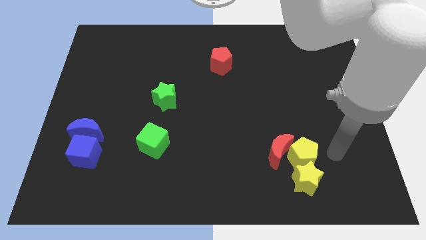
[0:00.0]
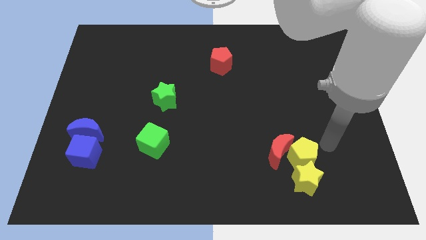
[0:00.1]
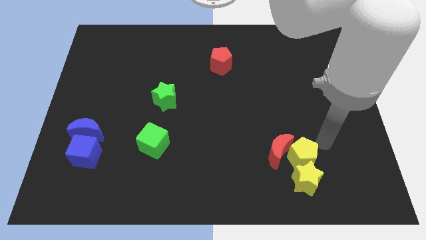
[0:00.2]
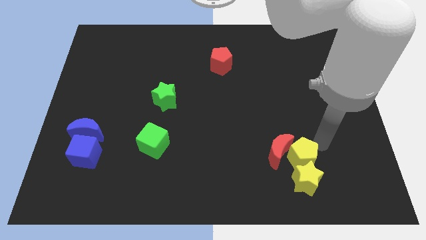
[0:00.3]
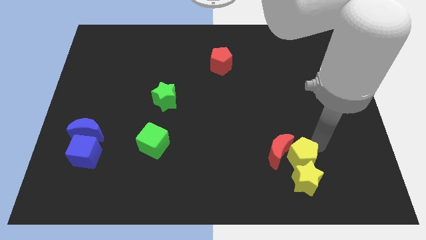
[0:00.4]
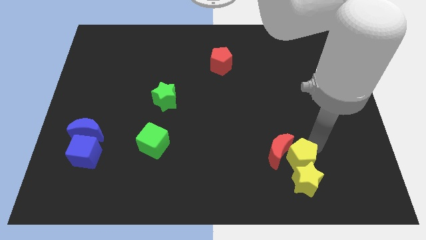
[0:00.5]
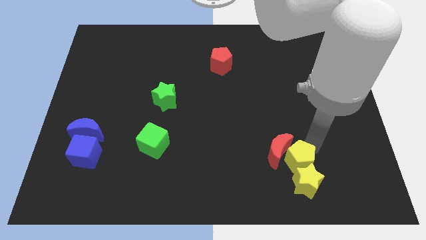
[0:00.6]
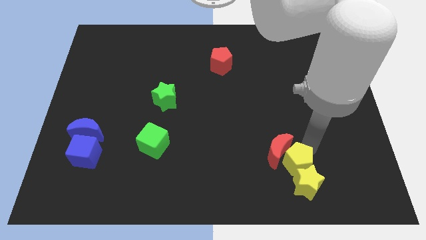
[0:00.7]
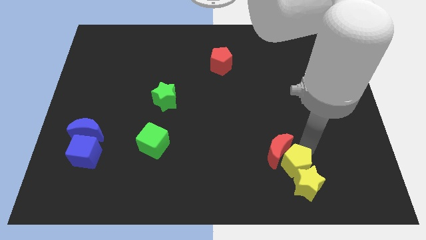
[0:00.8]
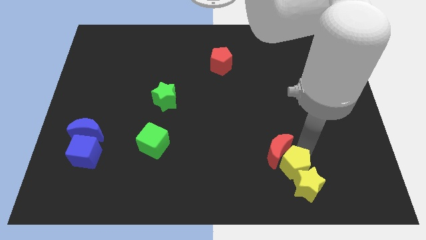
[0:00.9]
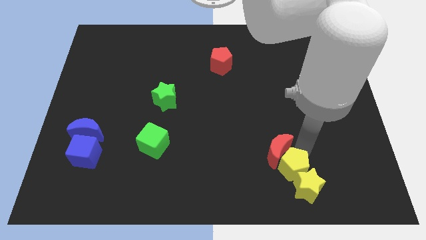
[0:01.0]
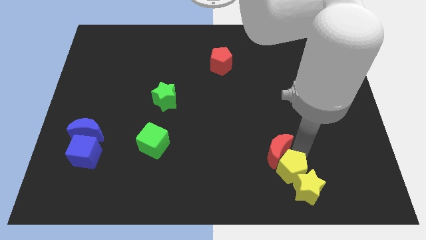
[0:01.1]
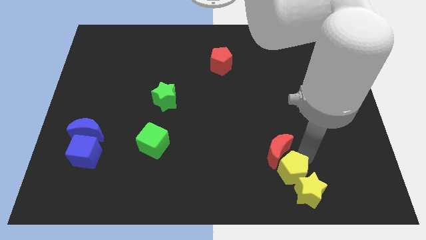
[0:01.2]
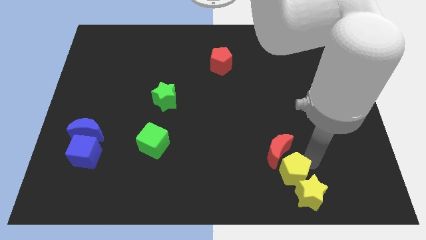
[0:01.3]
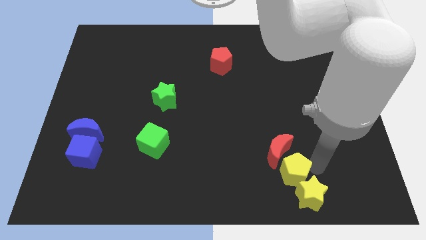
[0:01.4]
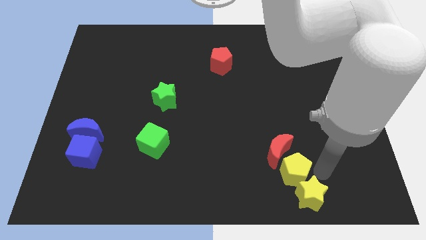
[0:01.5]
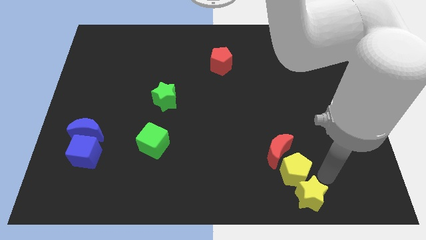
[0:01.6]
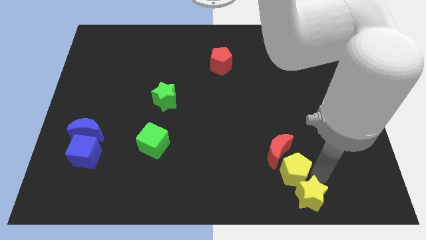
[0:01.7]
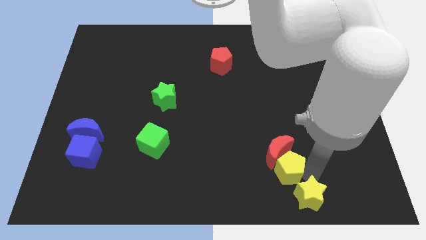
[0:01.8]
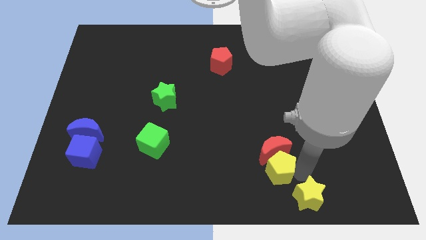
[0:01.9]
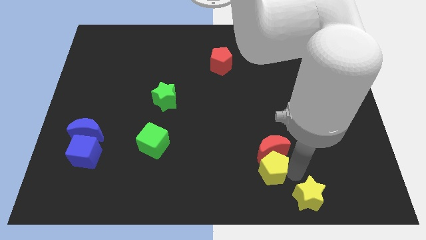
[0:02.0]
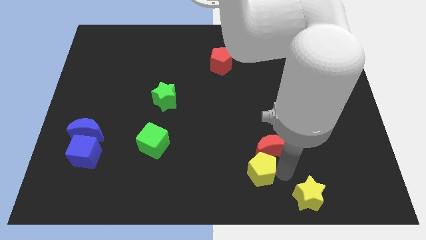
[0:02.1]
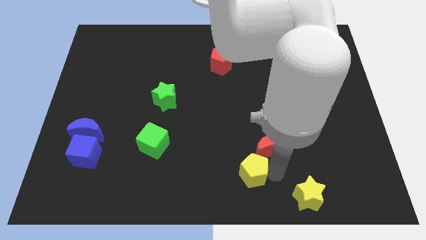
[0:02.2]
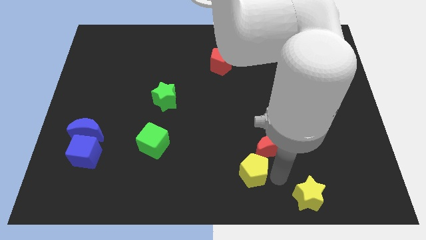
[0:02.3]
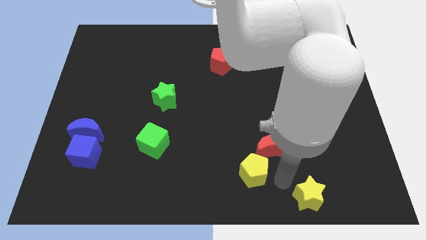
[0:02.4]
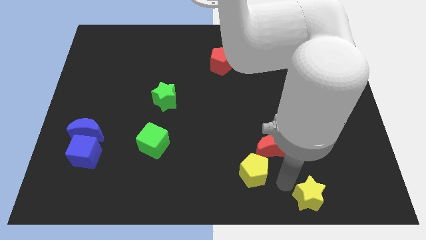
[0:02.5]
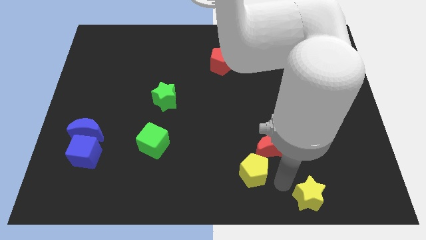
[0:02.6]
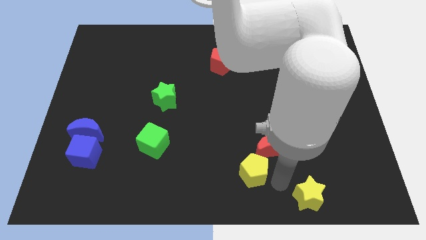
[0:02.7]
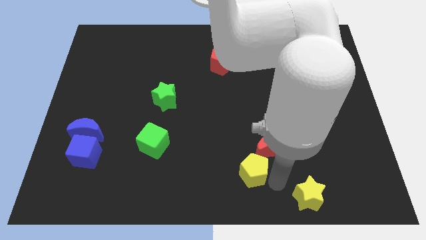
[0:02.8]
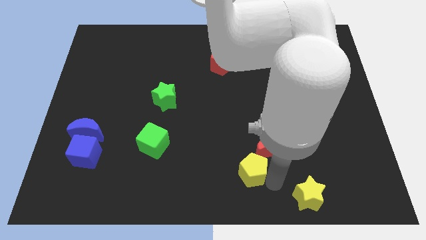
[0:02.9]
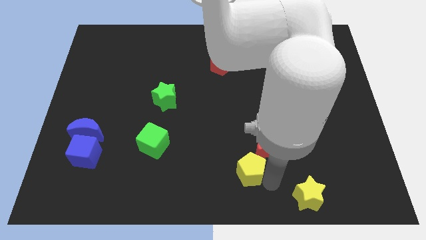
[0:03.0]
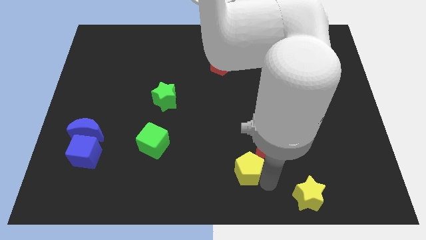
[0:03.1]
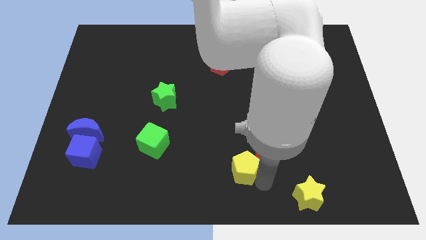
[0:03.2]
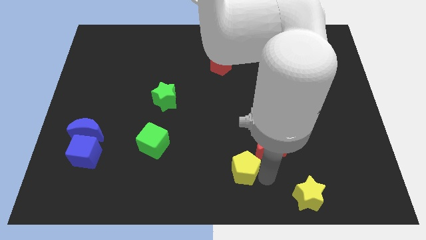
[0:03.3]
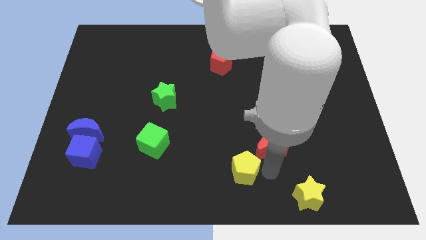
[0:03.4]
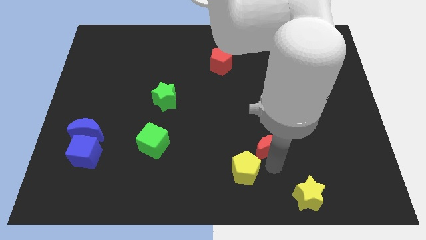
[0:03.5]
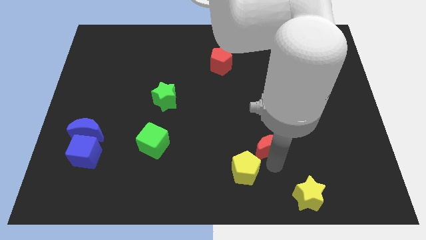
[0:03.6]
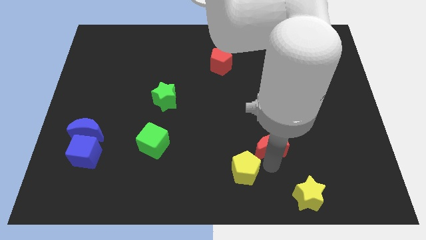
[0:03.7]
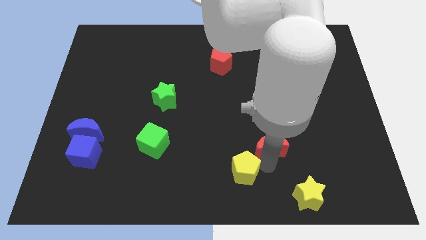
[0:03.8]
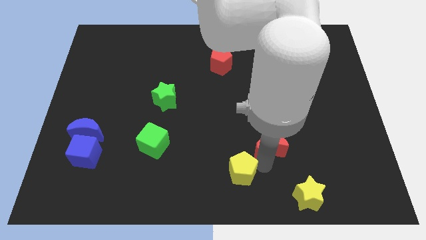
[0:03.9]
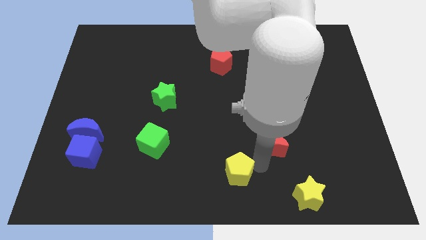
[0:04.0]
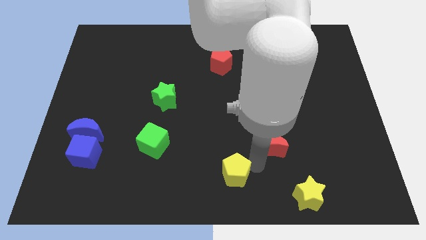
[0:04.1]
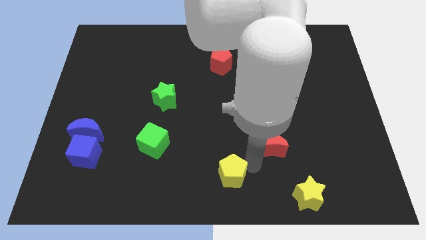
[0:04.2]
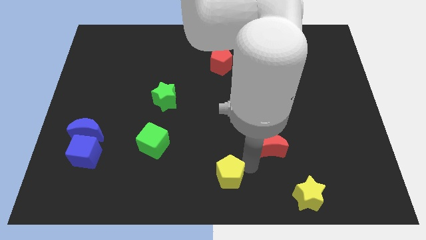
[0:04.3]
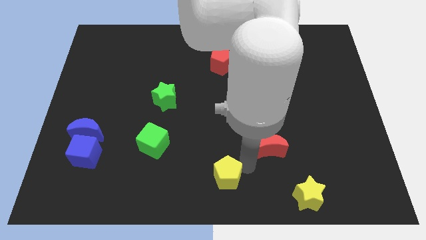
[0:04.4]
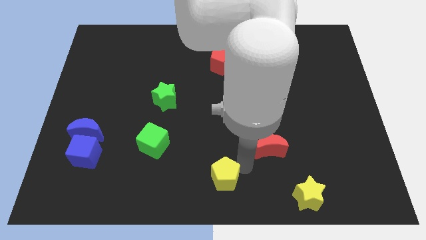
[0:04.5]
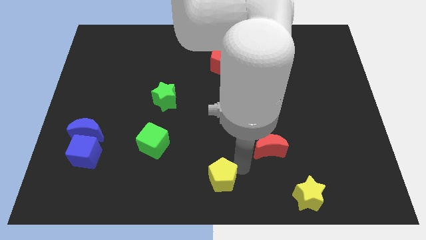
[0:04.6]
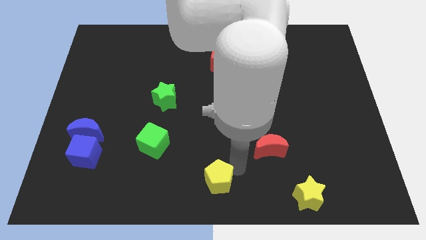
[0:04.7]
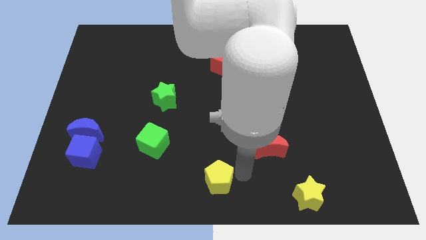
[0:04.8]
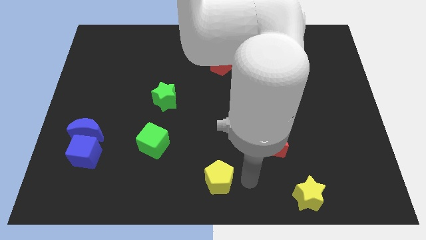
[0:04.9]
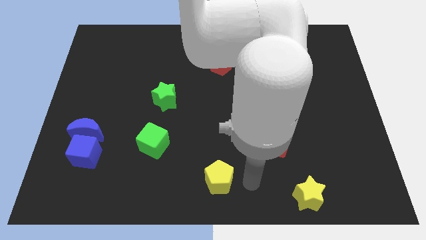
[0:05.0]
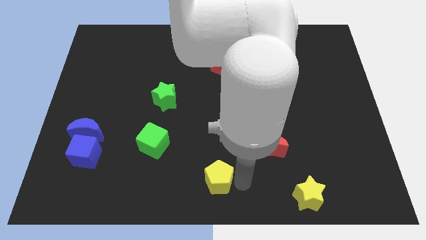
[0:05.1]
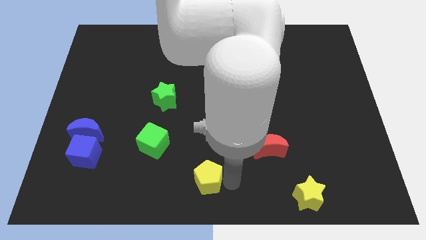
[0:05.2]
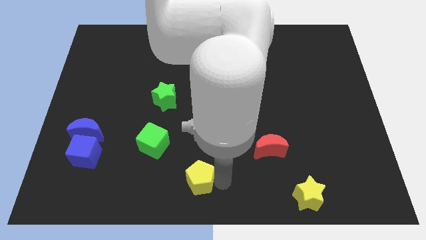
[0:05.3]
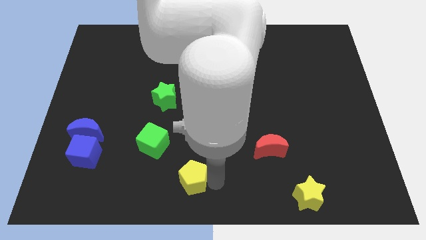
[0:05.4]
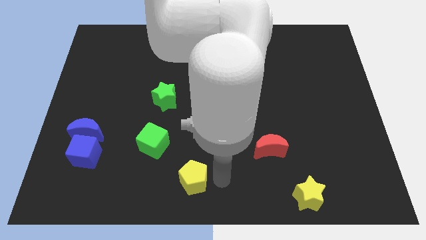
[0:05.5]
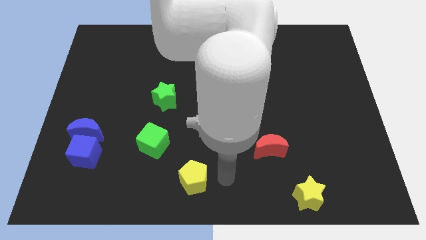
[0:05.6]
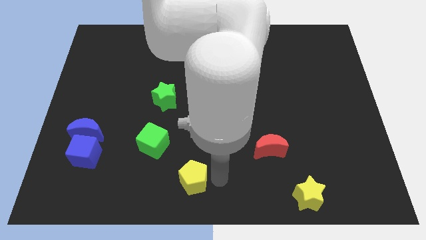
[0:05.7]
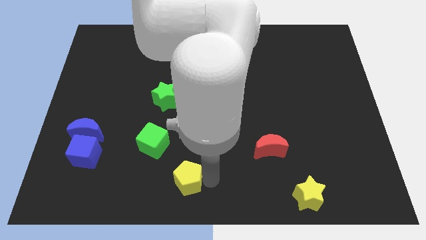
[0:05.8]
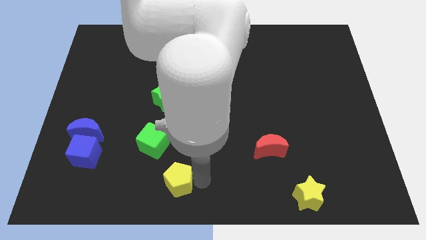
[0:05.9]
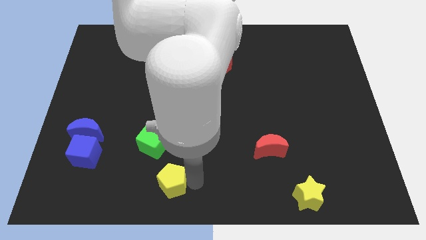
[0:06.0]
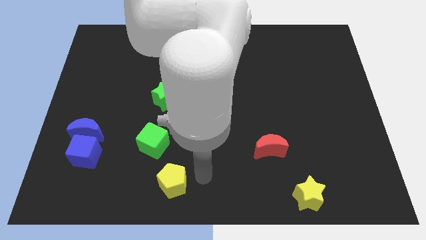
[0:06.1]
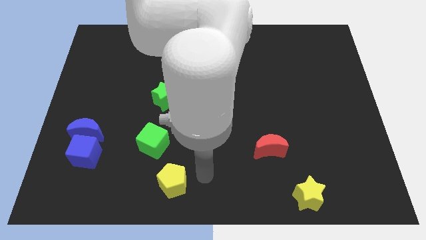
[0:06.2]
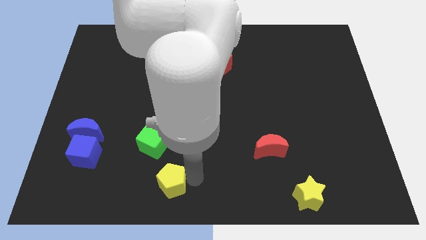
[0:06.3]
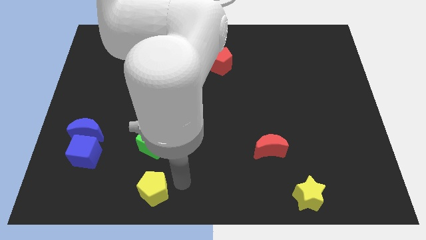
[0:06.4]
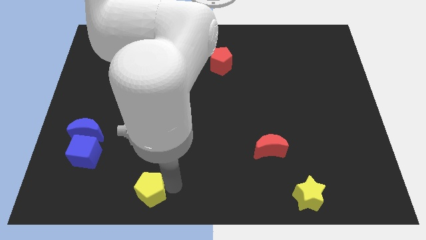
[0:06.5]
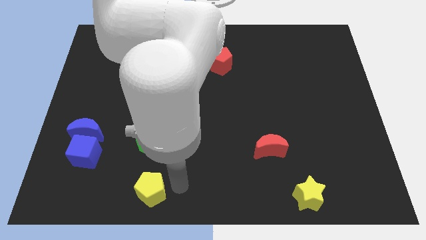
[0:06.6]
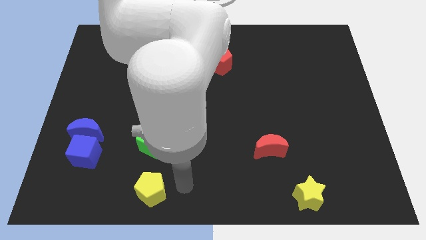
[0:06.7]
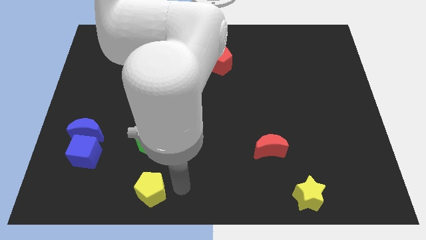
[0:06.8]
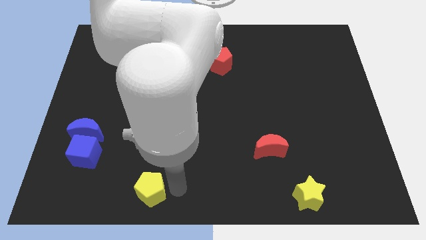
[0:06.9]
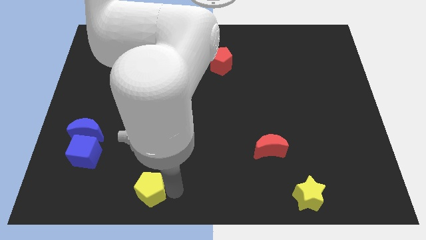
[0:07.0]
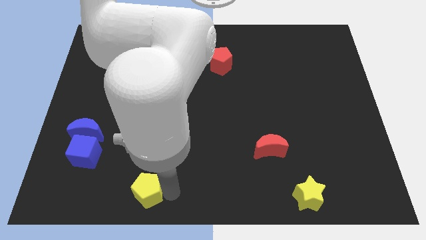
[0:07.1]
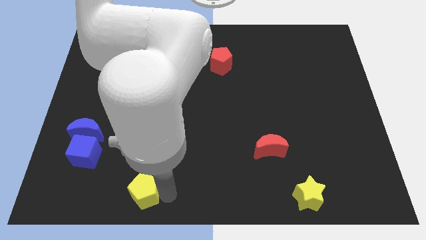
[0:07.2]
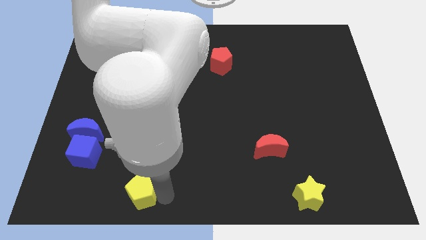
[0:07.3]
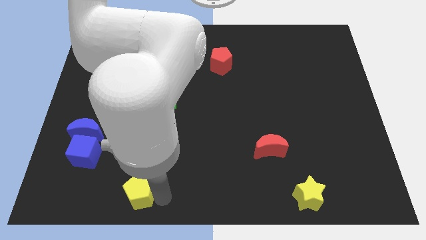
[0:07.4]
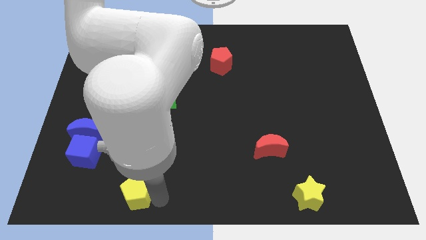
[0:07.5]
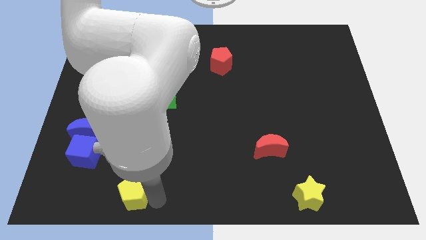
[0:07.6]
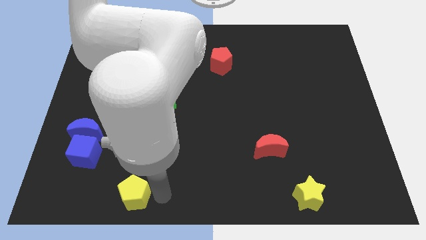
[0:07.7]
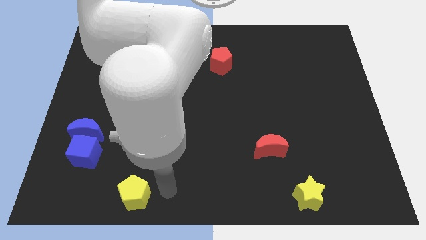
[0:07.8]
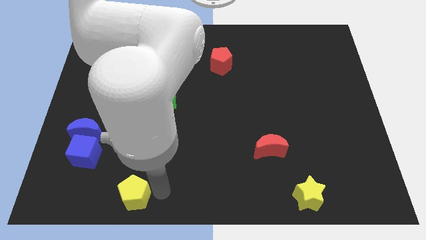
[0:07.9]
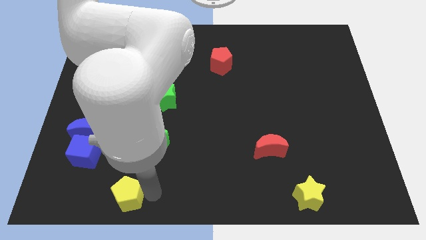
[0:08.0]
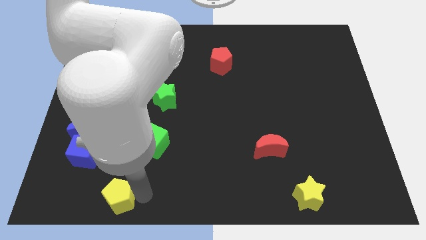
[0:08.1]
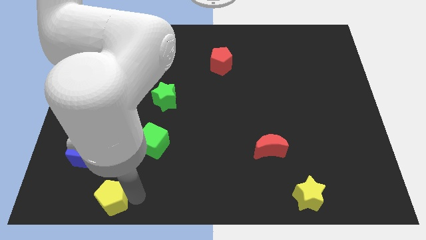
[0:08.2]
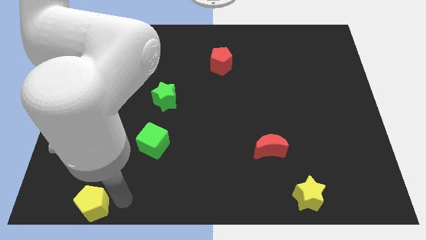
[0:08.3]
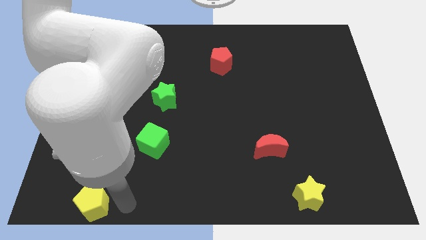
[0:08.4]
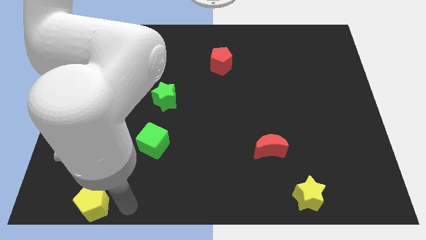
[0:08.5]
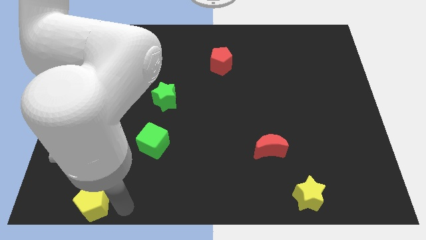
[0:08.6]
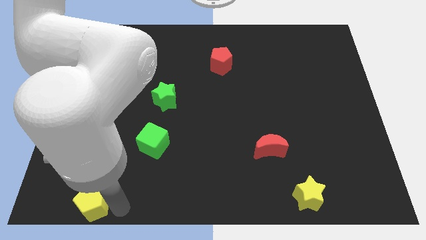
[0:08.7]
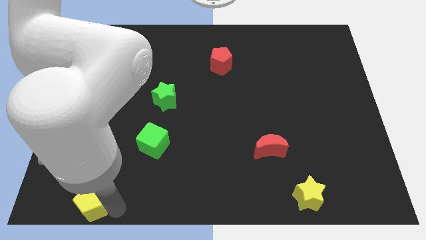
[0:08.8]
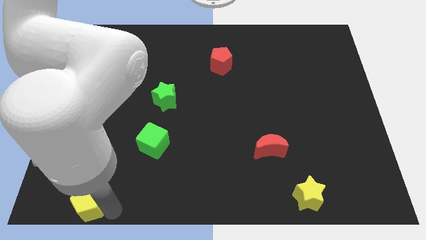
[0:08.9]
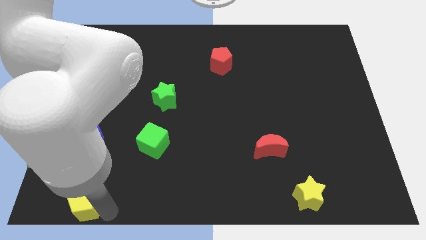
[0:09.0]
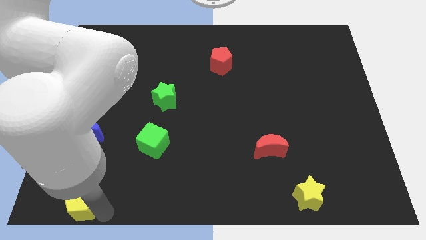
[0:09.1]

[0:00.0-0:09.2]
slide the yellow pentagon to the bottom left
